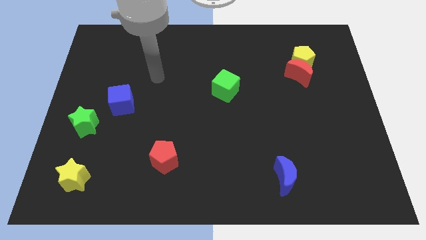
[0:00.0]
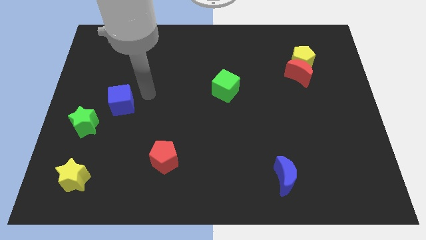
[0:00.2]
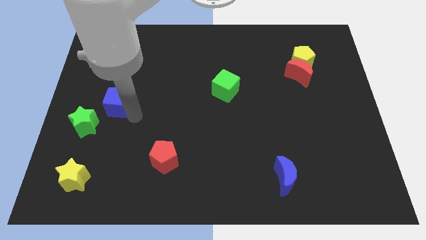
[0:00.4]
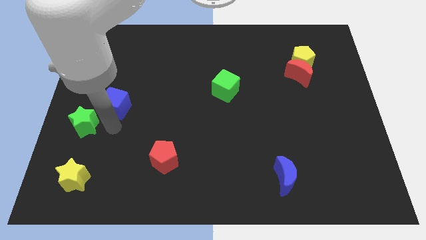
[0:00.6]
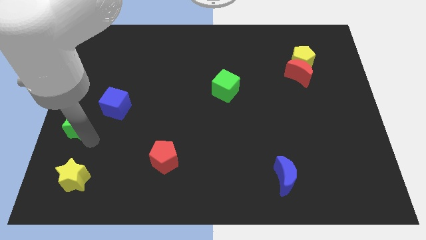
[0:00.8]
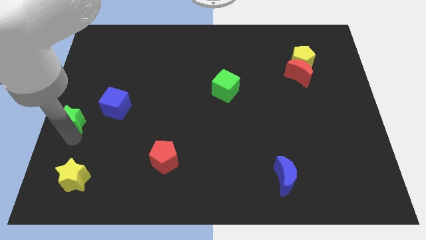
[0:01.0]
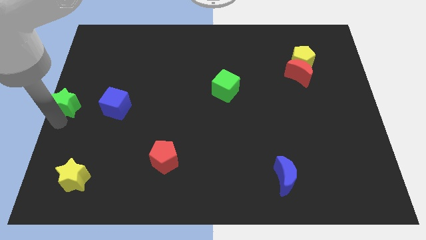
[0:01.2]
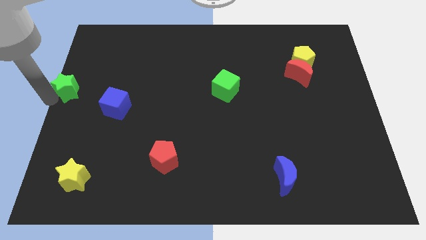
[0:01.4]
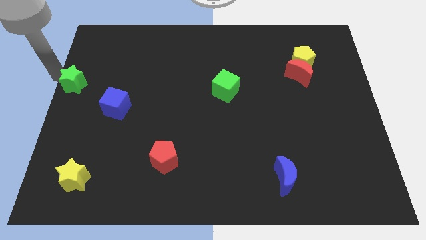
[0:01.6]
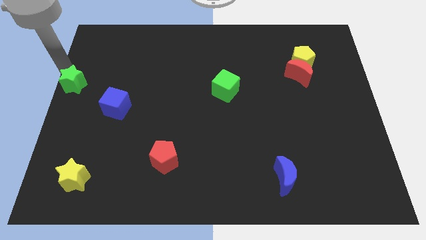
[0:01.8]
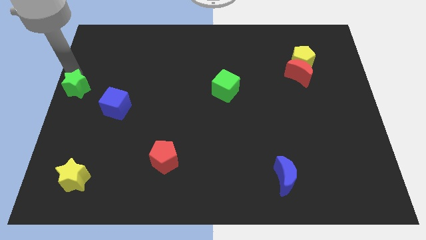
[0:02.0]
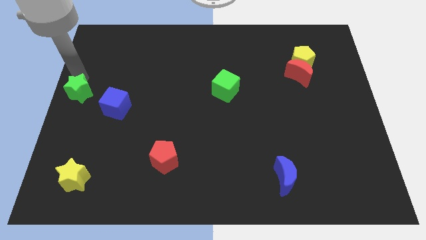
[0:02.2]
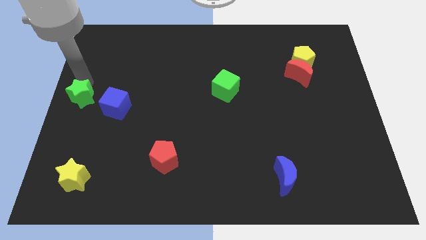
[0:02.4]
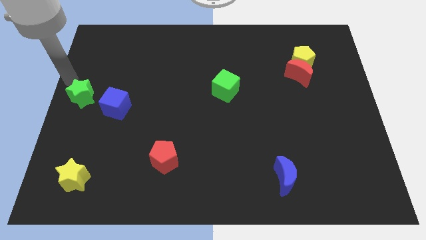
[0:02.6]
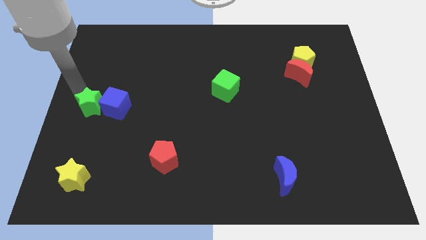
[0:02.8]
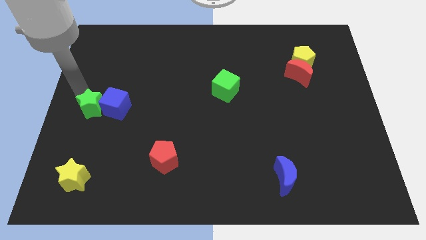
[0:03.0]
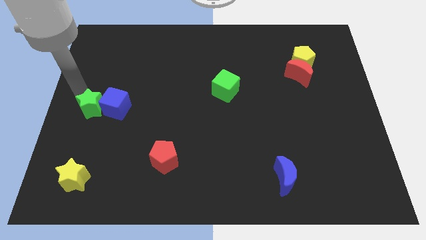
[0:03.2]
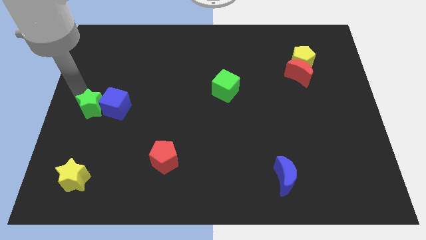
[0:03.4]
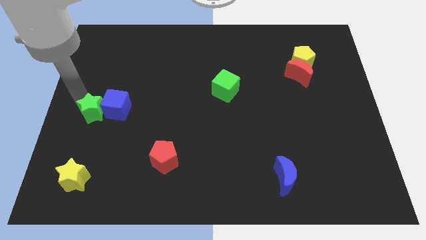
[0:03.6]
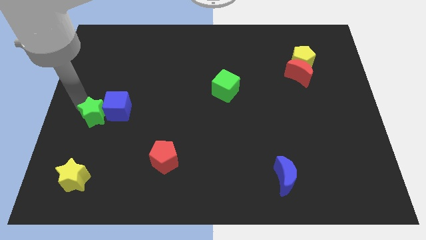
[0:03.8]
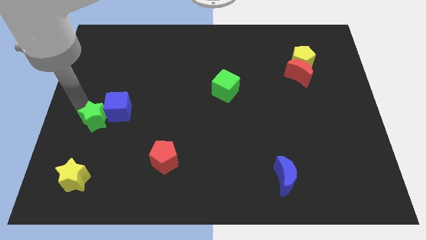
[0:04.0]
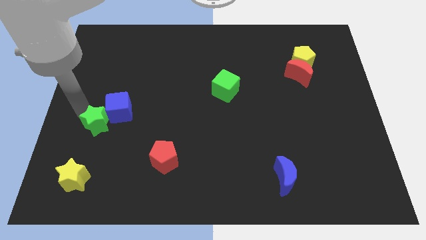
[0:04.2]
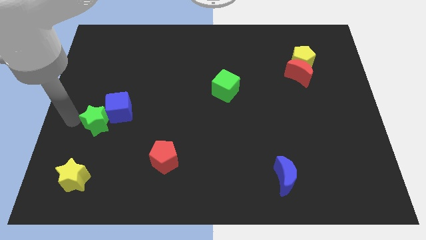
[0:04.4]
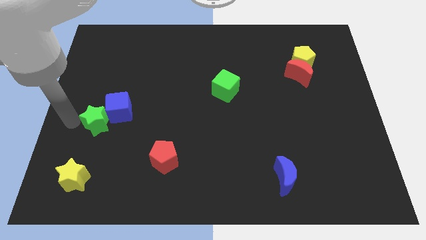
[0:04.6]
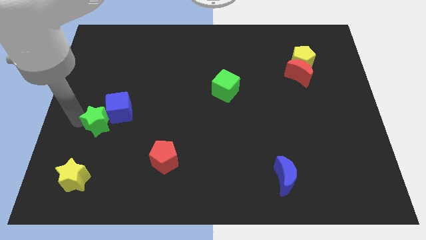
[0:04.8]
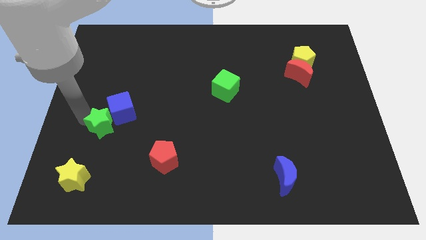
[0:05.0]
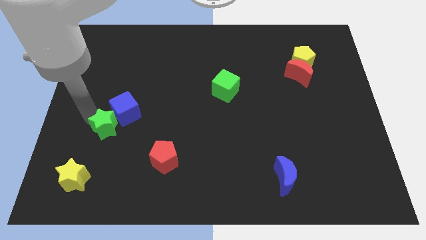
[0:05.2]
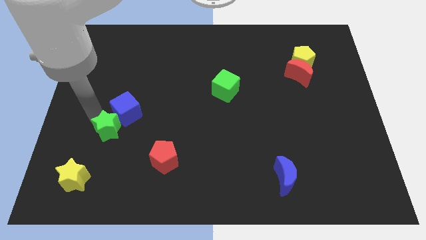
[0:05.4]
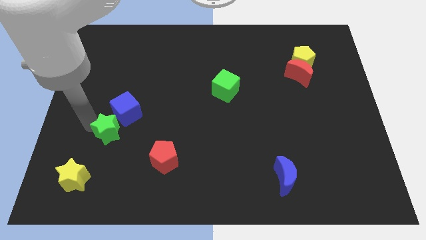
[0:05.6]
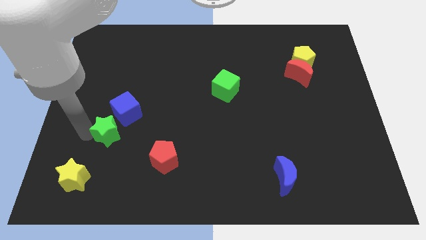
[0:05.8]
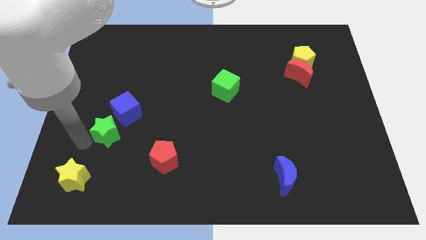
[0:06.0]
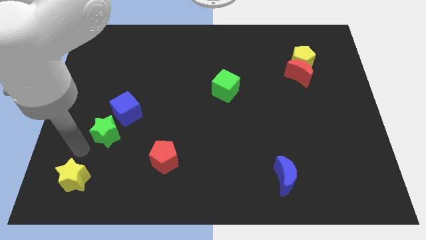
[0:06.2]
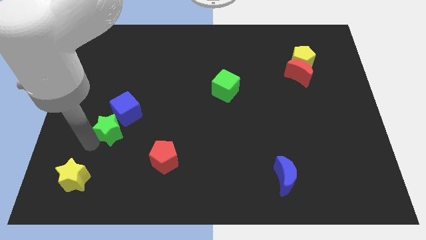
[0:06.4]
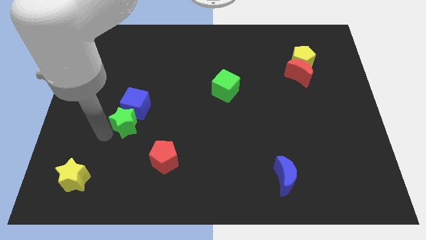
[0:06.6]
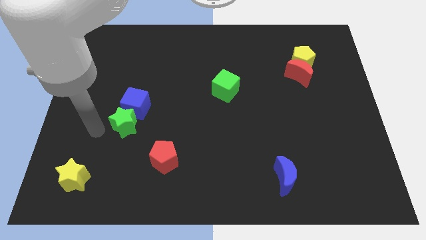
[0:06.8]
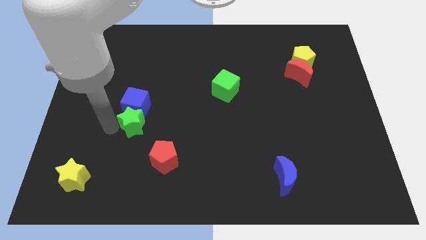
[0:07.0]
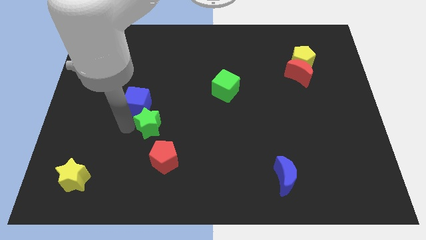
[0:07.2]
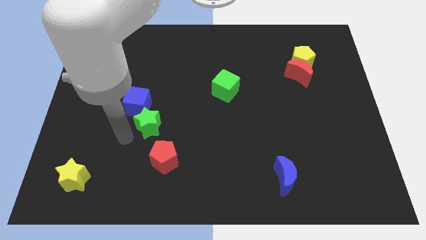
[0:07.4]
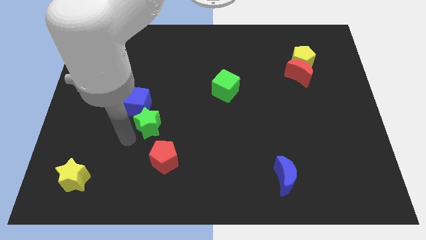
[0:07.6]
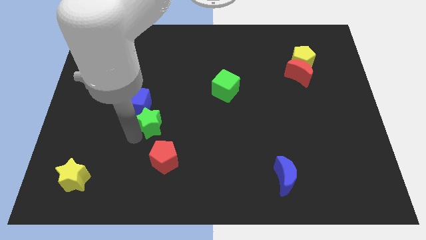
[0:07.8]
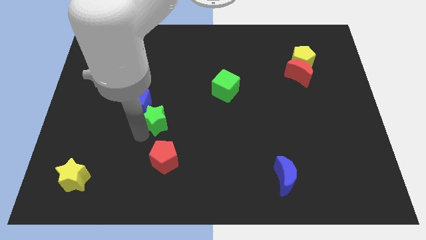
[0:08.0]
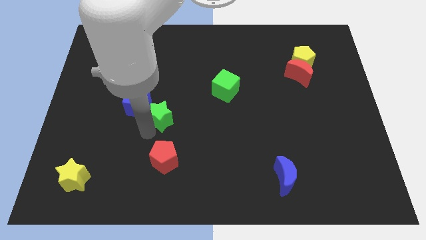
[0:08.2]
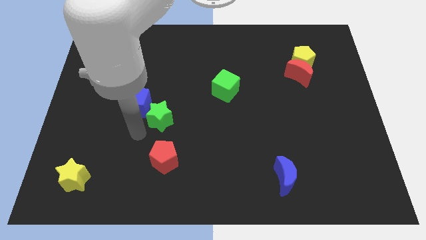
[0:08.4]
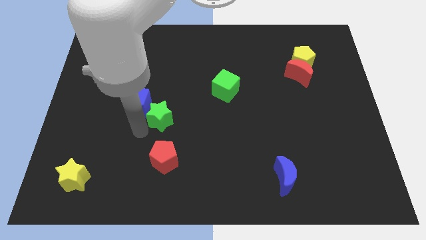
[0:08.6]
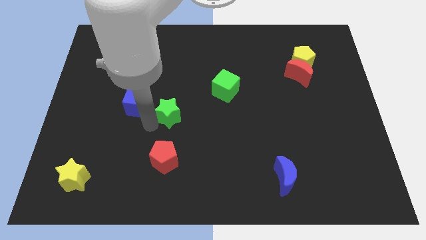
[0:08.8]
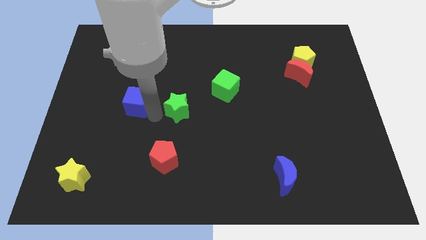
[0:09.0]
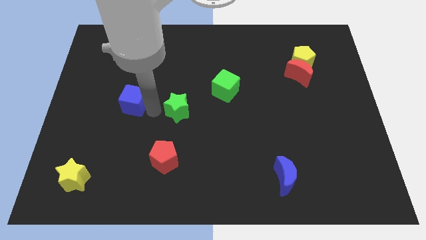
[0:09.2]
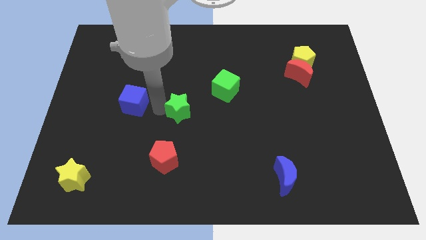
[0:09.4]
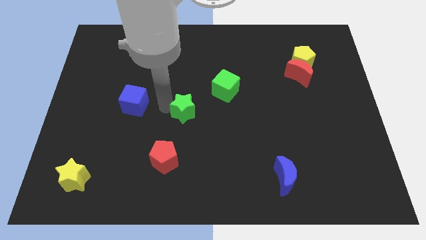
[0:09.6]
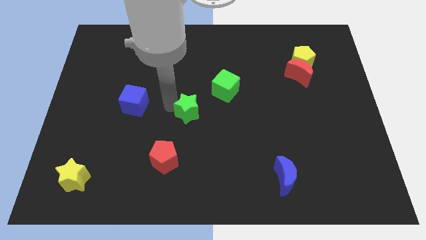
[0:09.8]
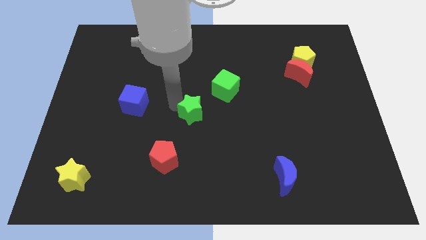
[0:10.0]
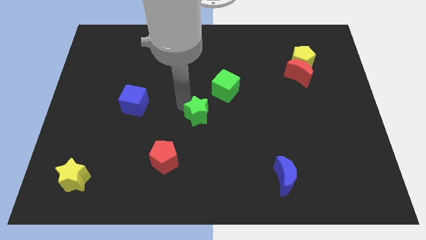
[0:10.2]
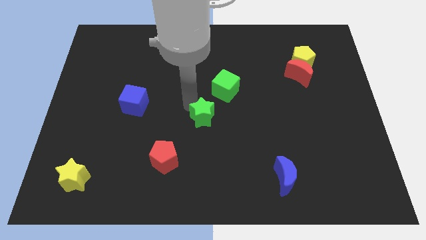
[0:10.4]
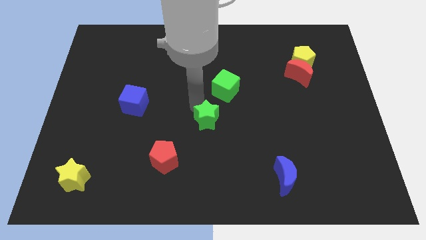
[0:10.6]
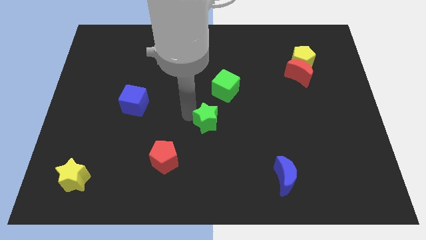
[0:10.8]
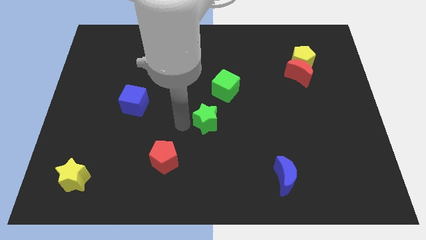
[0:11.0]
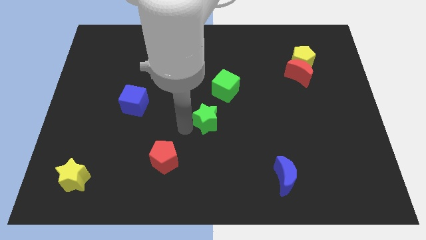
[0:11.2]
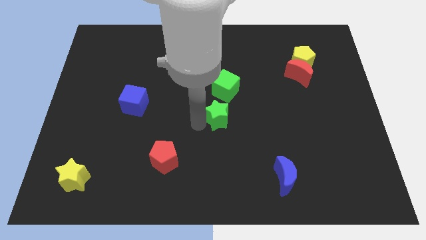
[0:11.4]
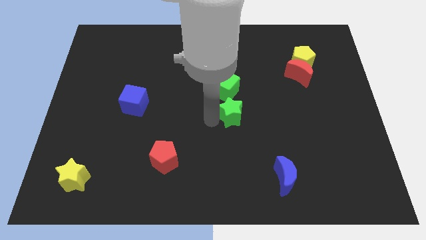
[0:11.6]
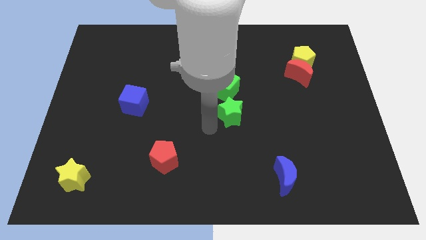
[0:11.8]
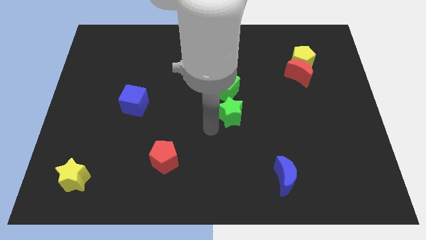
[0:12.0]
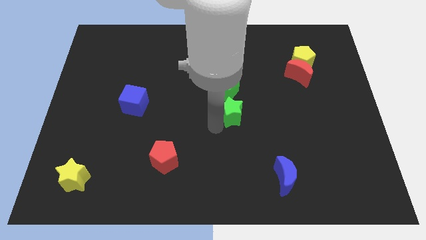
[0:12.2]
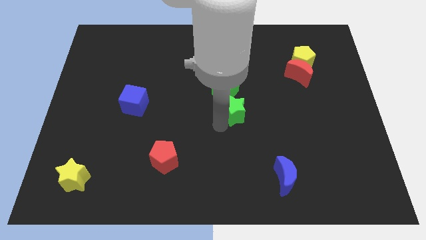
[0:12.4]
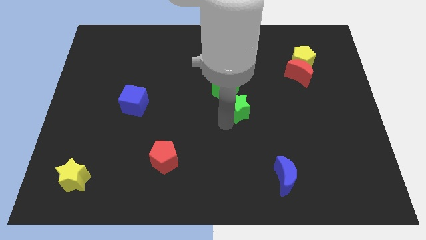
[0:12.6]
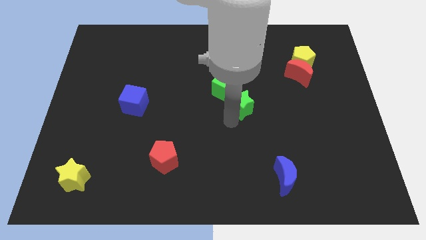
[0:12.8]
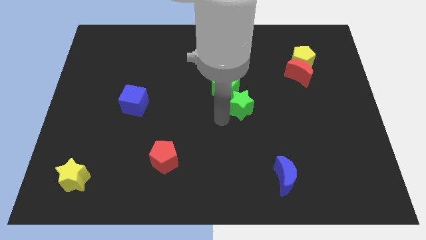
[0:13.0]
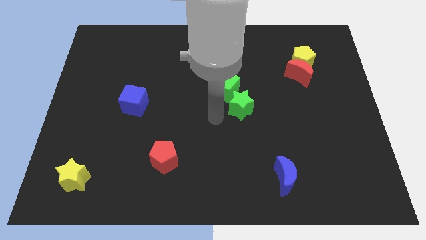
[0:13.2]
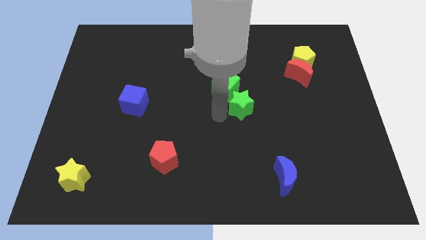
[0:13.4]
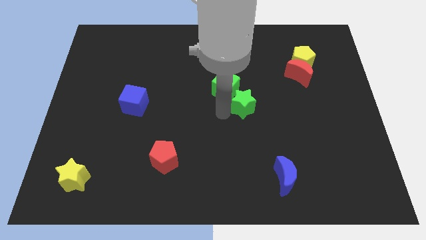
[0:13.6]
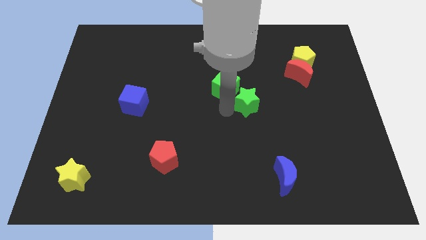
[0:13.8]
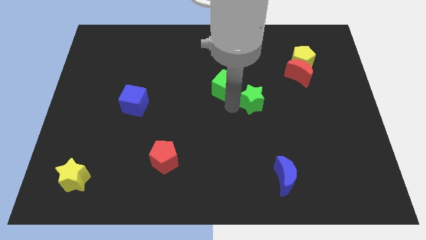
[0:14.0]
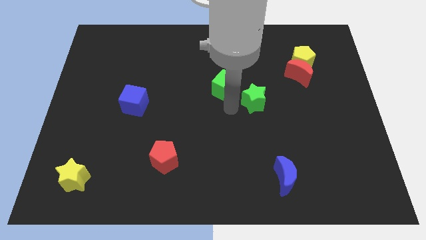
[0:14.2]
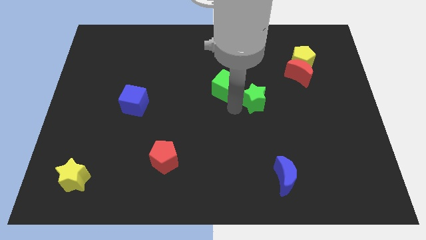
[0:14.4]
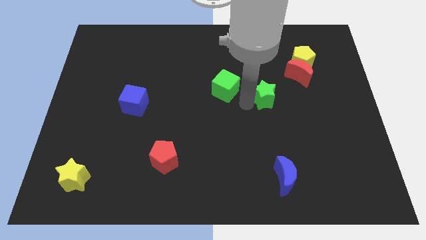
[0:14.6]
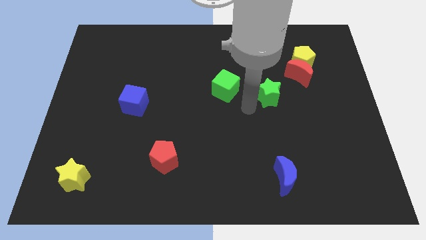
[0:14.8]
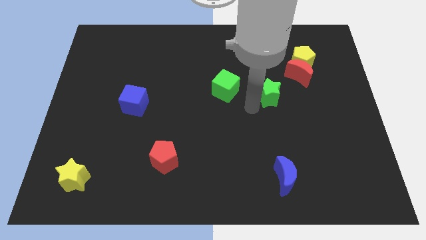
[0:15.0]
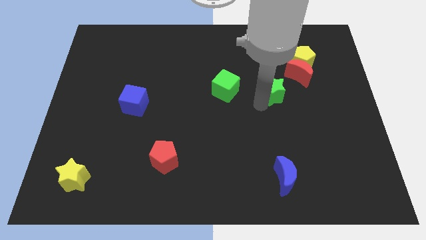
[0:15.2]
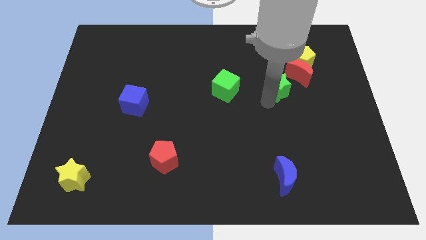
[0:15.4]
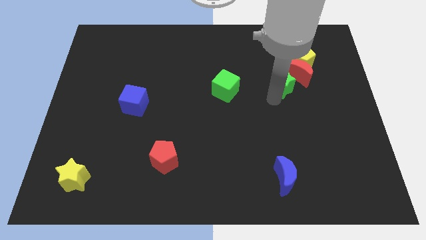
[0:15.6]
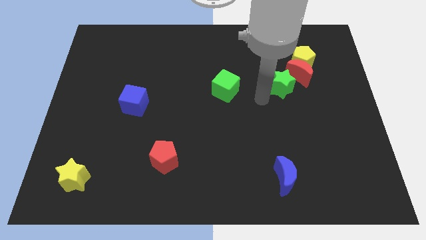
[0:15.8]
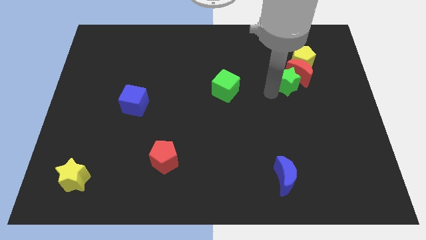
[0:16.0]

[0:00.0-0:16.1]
push the green star next to the red moon
